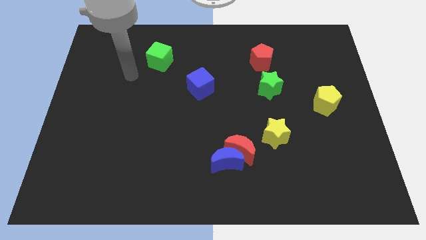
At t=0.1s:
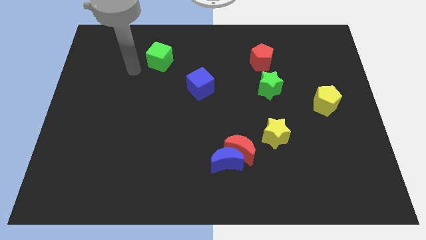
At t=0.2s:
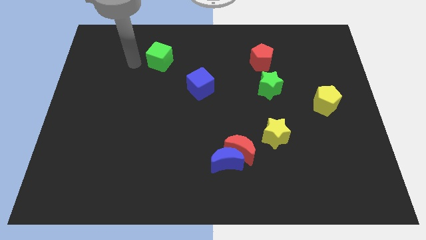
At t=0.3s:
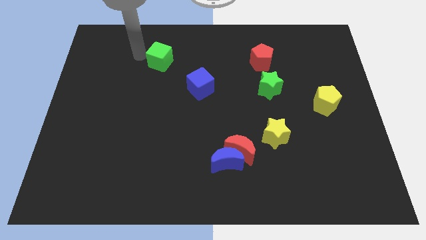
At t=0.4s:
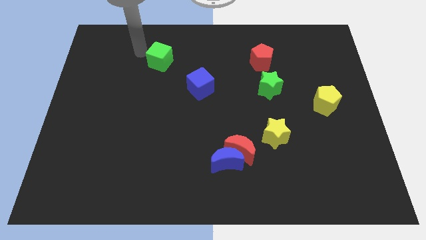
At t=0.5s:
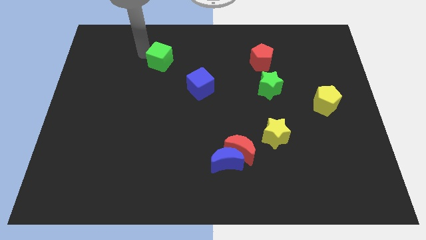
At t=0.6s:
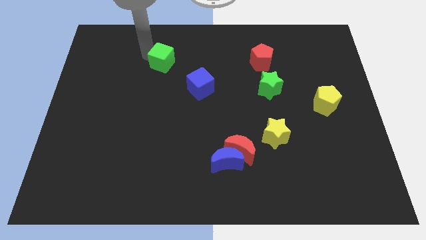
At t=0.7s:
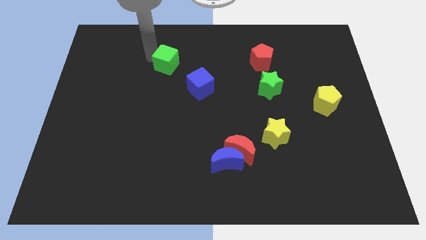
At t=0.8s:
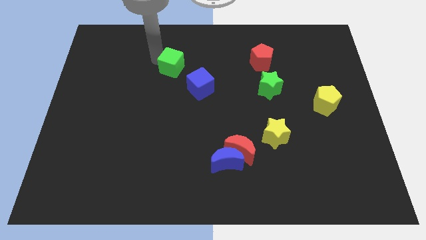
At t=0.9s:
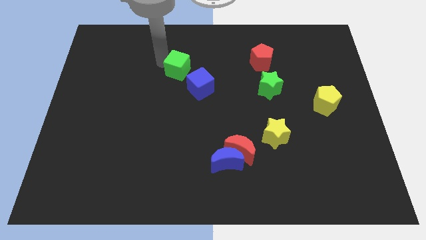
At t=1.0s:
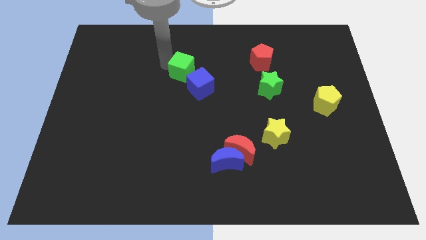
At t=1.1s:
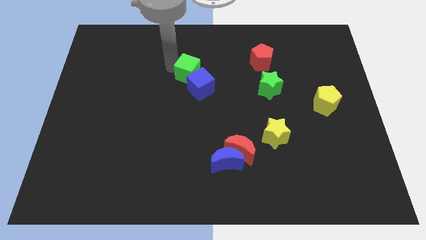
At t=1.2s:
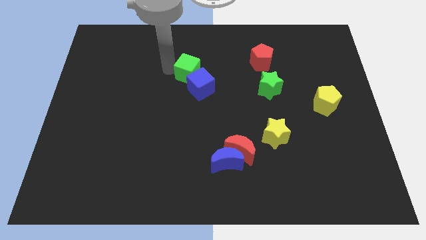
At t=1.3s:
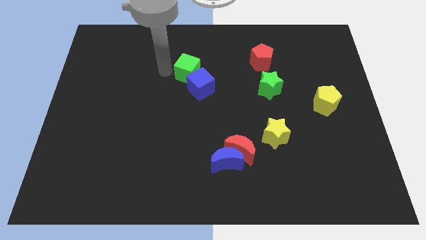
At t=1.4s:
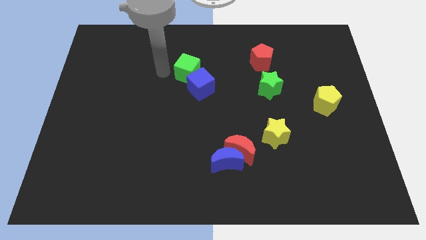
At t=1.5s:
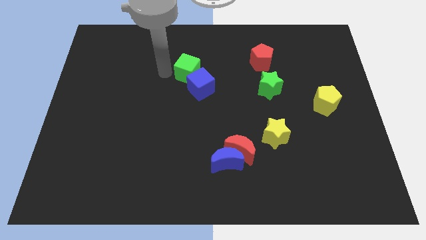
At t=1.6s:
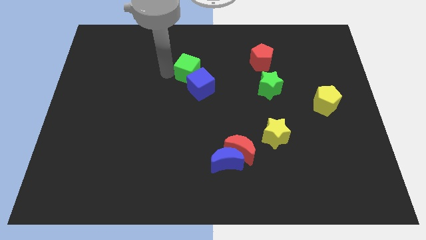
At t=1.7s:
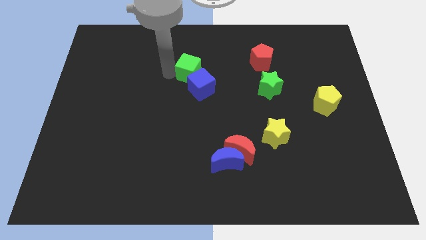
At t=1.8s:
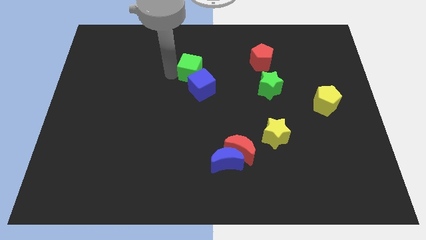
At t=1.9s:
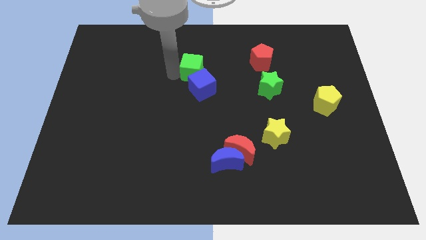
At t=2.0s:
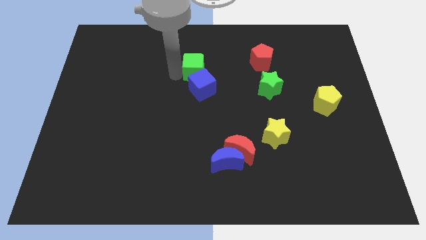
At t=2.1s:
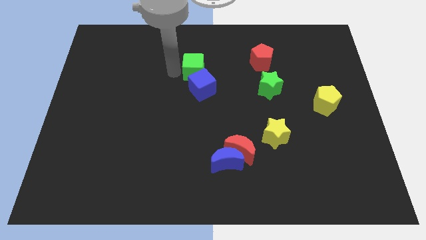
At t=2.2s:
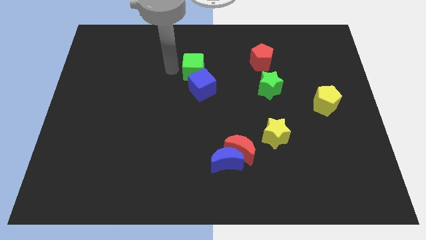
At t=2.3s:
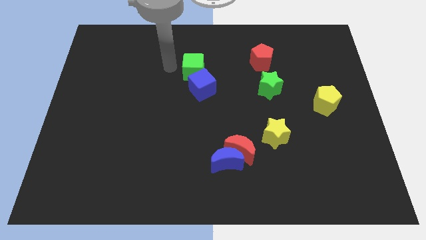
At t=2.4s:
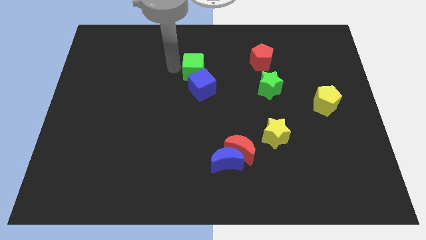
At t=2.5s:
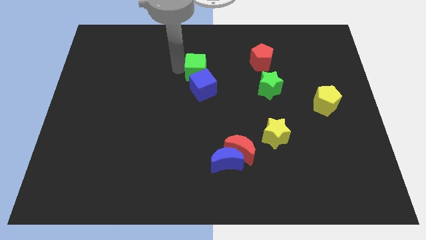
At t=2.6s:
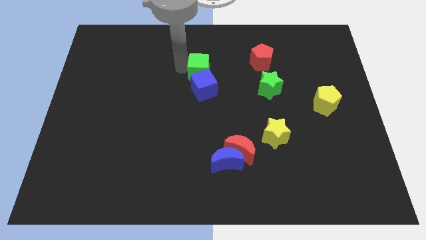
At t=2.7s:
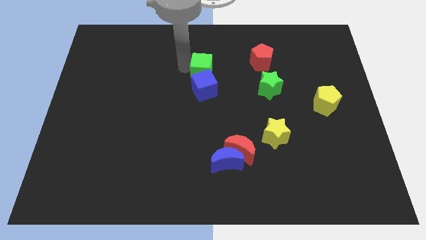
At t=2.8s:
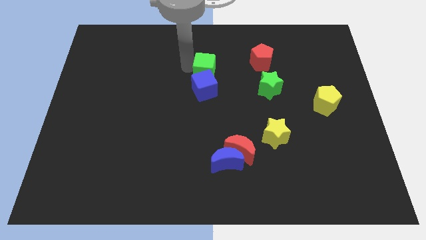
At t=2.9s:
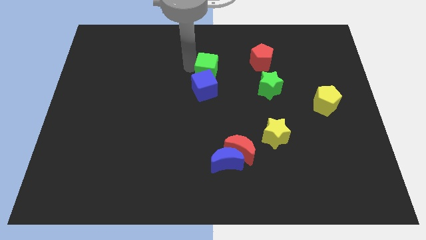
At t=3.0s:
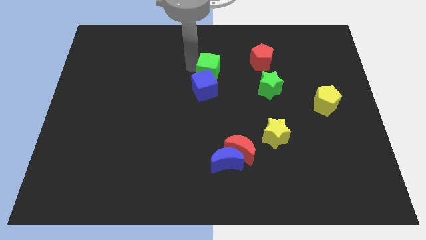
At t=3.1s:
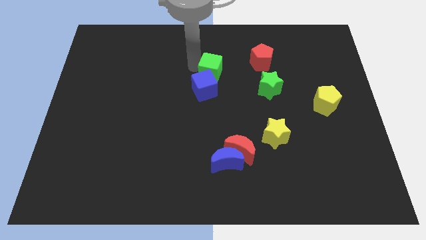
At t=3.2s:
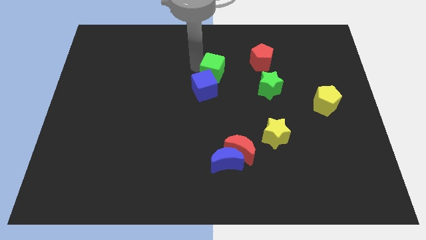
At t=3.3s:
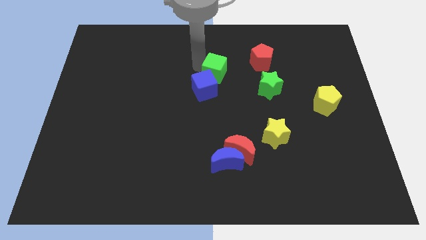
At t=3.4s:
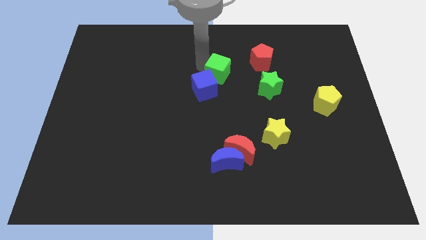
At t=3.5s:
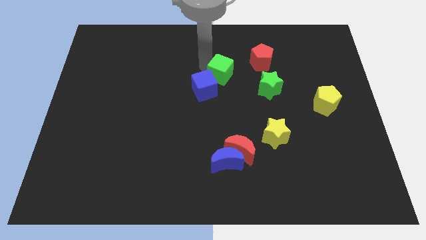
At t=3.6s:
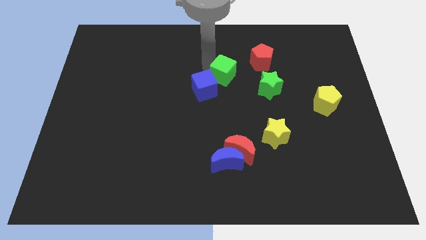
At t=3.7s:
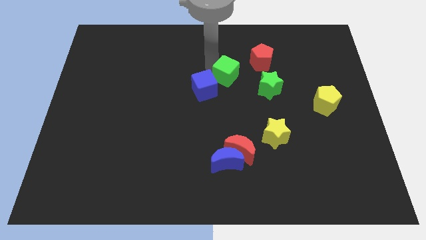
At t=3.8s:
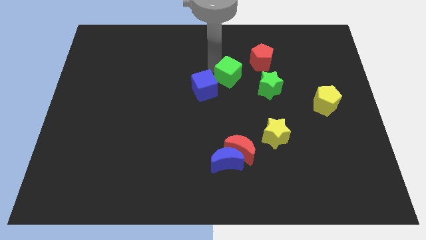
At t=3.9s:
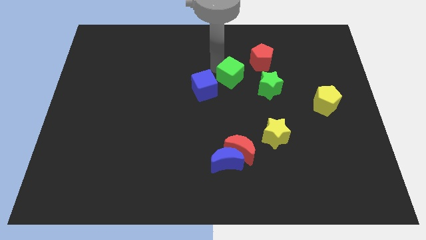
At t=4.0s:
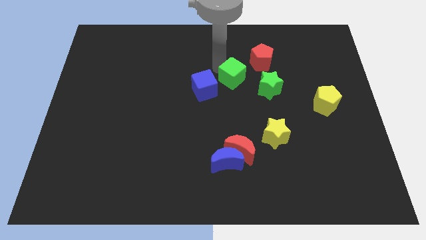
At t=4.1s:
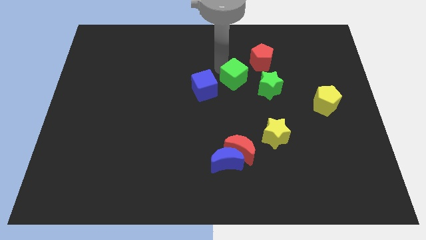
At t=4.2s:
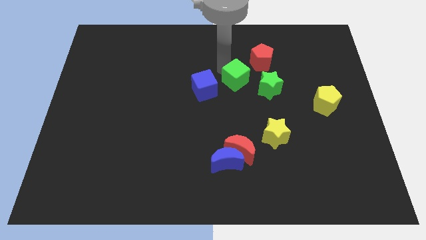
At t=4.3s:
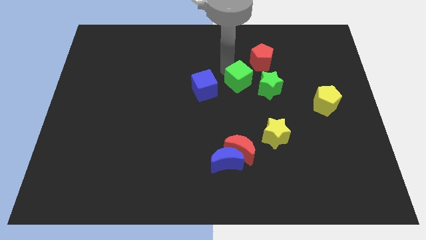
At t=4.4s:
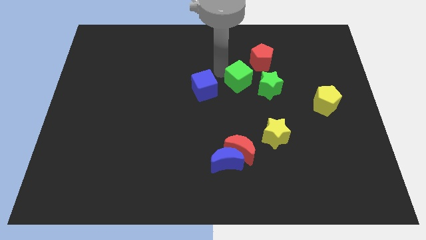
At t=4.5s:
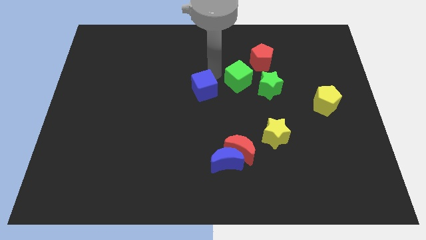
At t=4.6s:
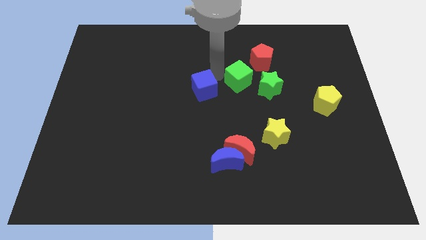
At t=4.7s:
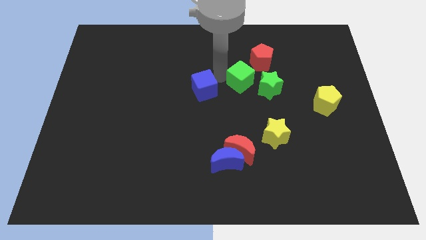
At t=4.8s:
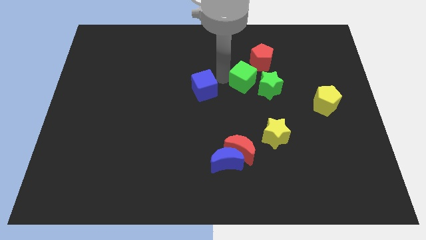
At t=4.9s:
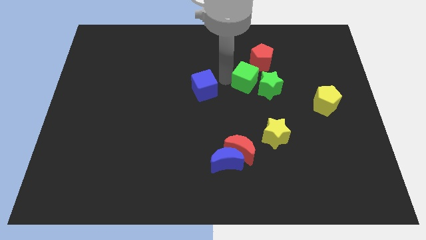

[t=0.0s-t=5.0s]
push the green cube towards the green star

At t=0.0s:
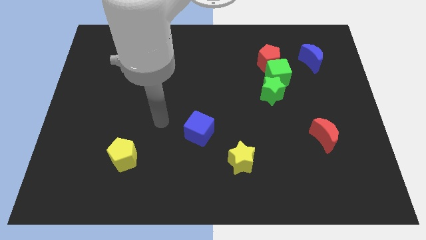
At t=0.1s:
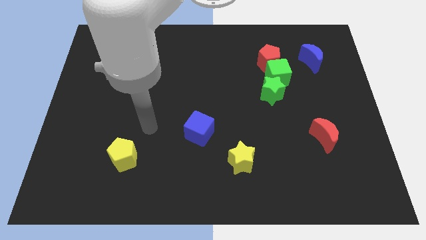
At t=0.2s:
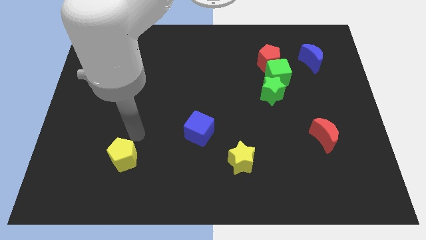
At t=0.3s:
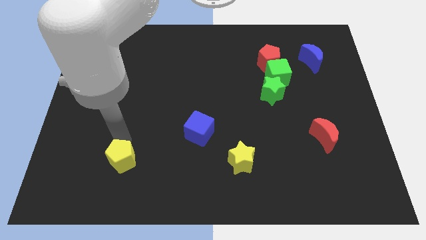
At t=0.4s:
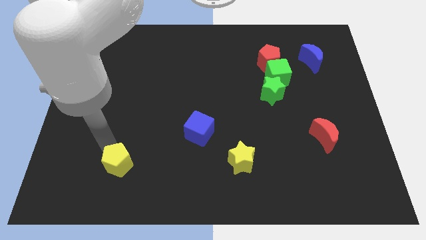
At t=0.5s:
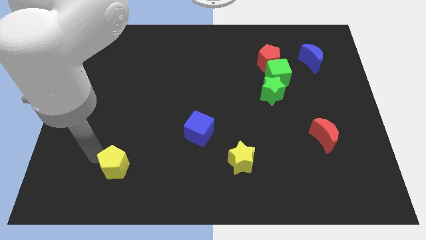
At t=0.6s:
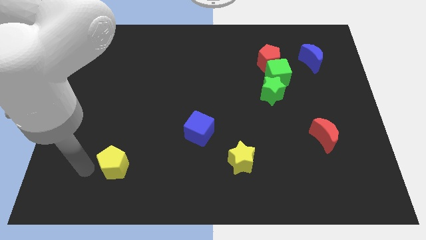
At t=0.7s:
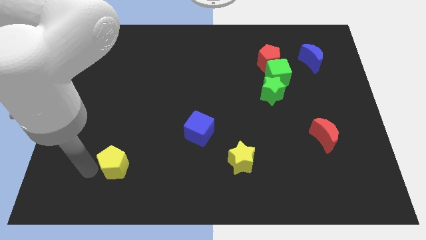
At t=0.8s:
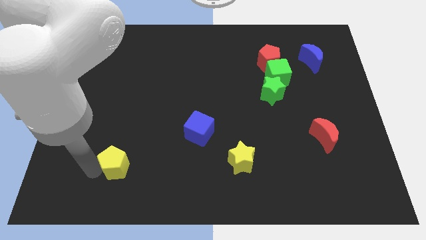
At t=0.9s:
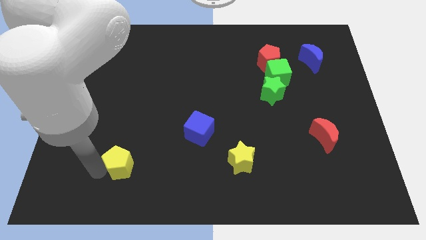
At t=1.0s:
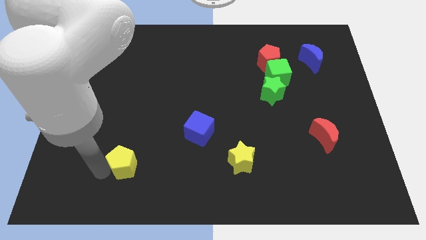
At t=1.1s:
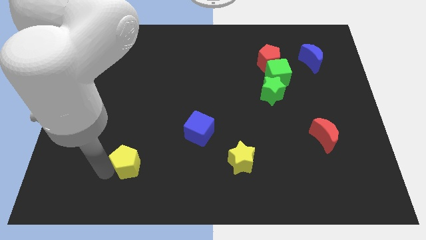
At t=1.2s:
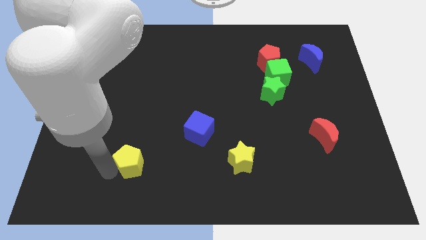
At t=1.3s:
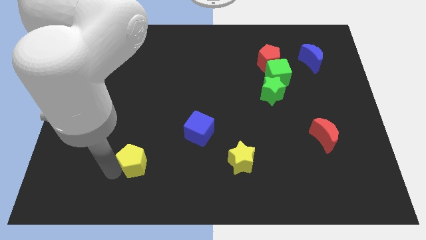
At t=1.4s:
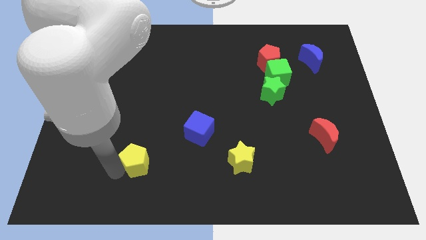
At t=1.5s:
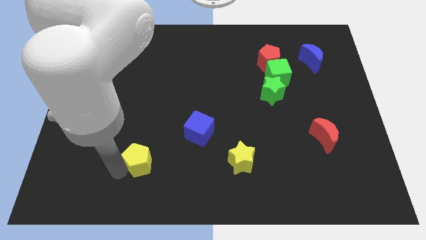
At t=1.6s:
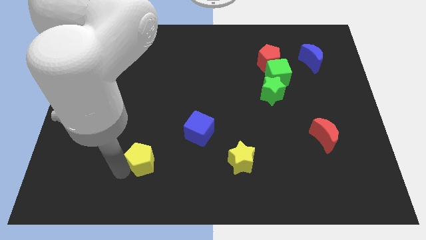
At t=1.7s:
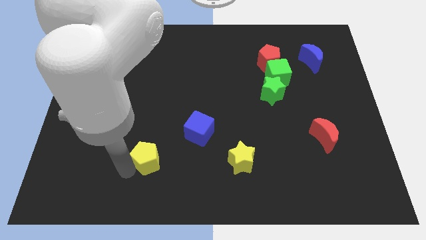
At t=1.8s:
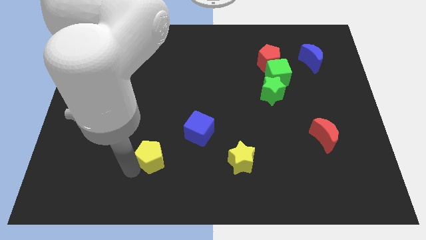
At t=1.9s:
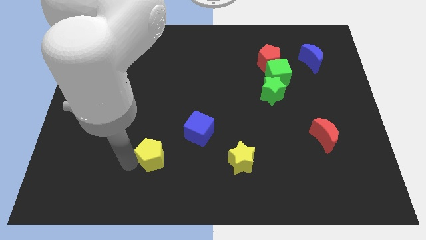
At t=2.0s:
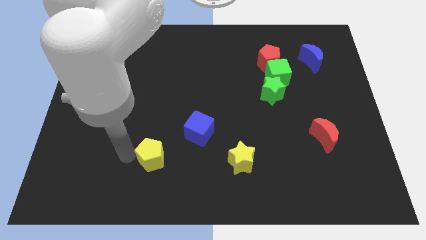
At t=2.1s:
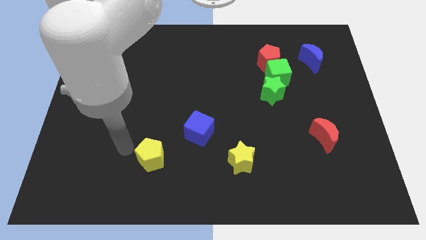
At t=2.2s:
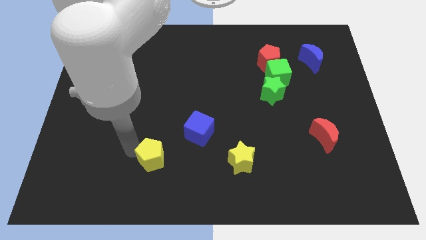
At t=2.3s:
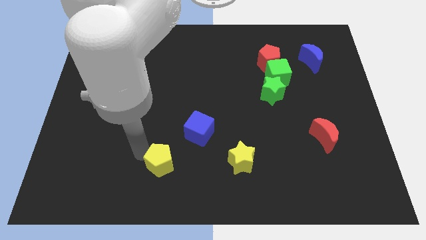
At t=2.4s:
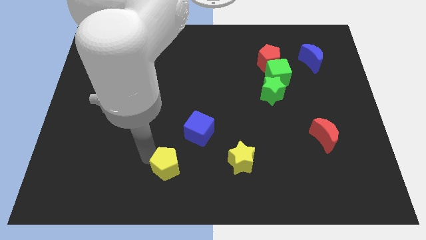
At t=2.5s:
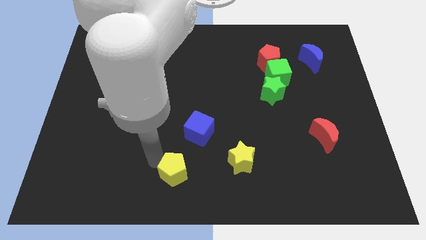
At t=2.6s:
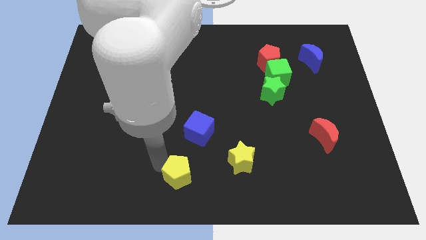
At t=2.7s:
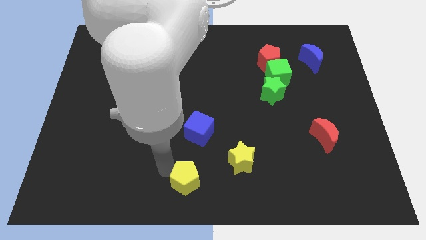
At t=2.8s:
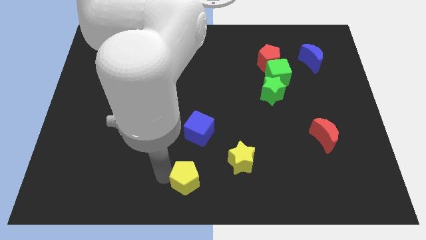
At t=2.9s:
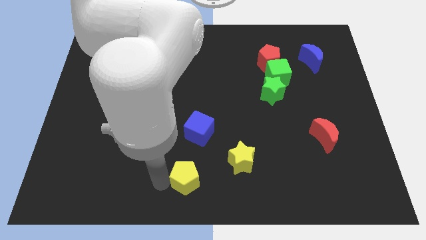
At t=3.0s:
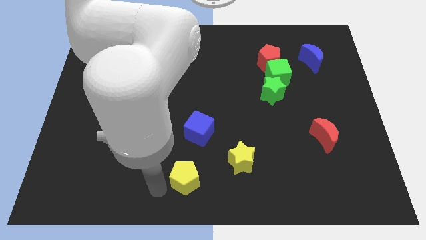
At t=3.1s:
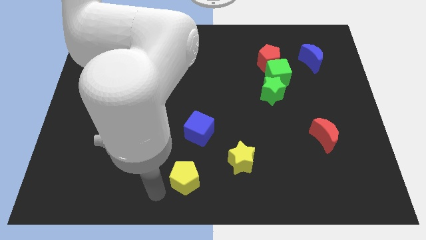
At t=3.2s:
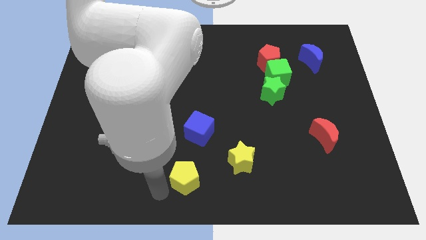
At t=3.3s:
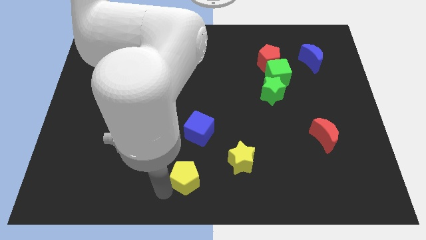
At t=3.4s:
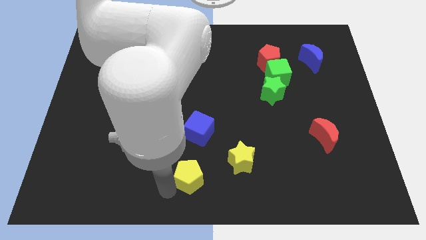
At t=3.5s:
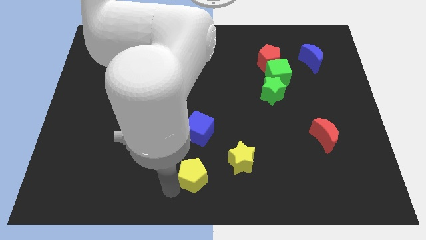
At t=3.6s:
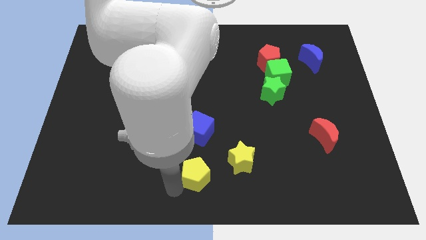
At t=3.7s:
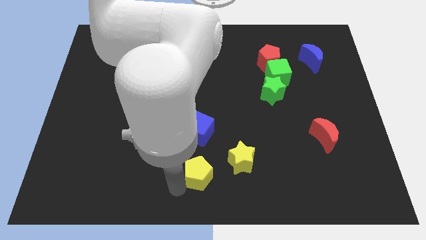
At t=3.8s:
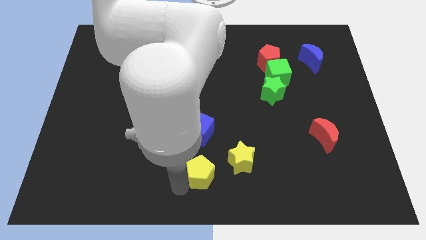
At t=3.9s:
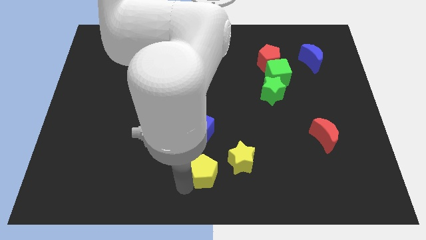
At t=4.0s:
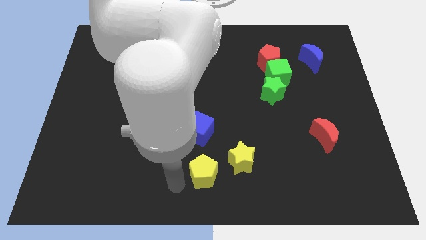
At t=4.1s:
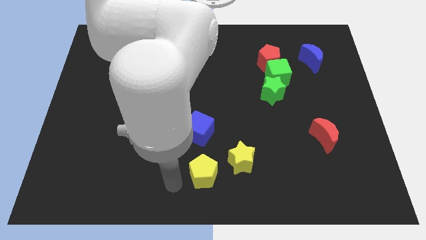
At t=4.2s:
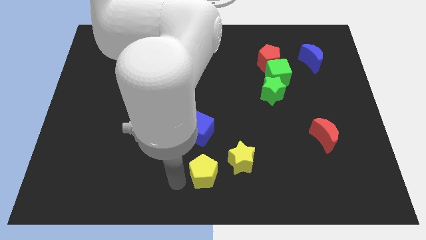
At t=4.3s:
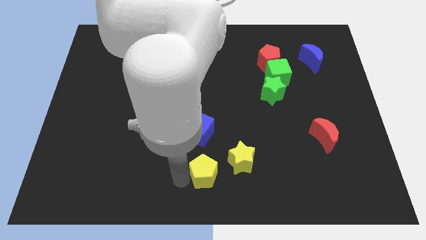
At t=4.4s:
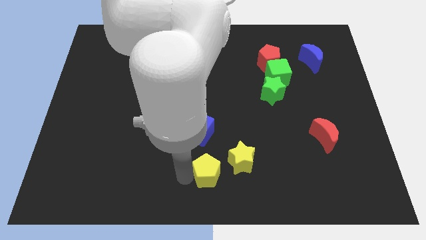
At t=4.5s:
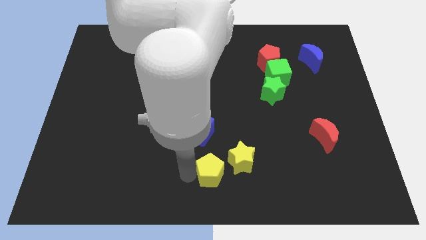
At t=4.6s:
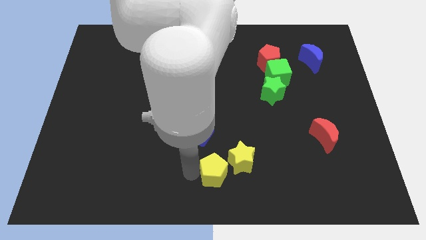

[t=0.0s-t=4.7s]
put the yellow pentagon next to the yellow star
